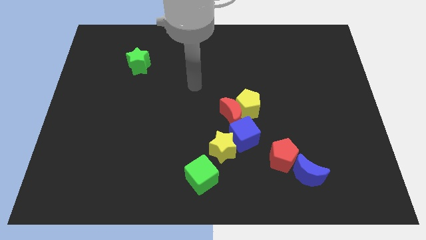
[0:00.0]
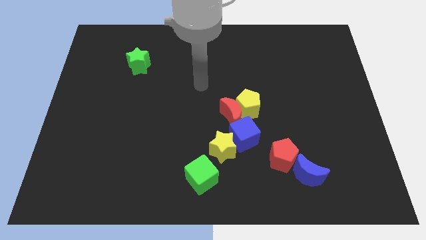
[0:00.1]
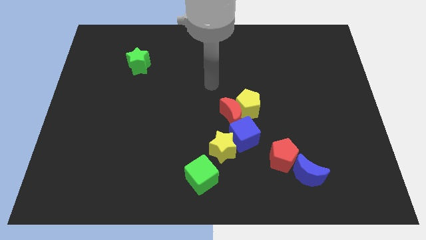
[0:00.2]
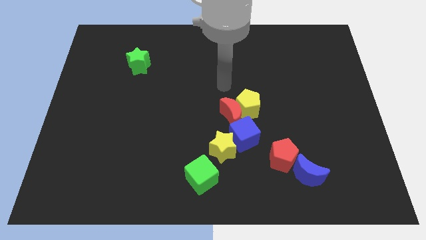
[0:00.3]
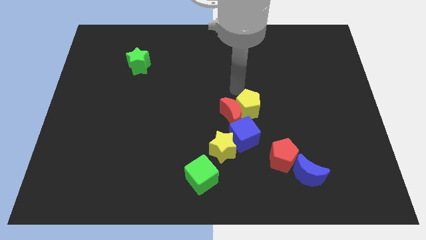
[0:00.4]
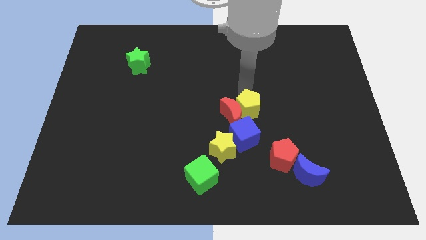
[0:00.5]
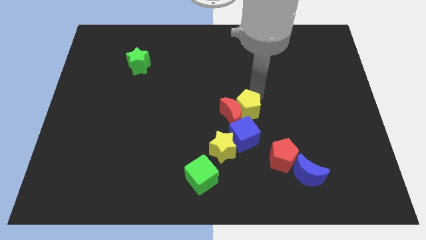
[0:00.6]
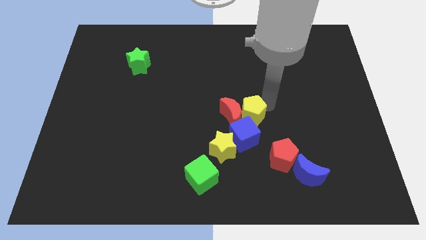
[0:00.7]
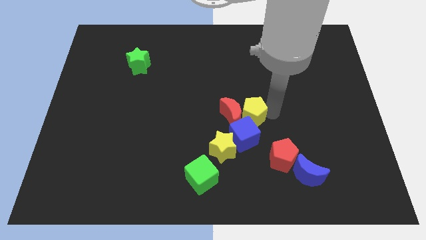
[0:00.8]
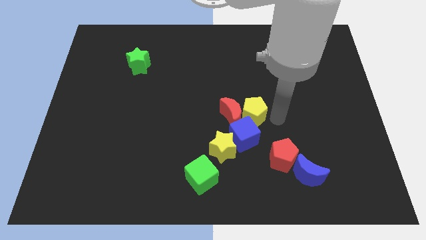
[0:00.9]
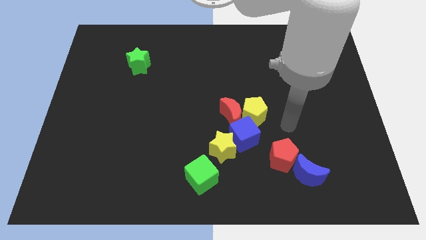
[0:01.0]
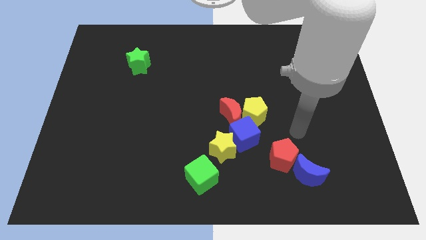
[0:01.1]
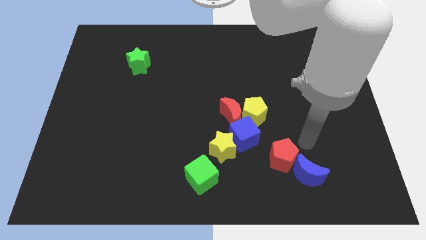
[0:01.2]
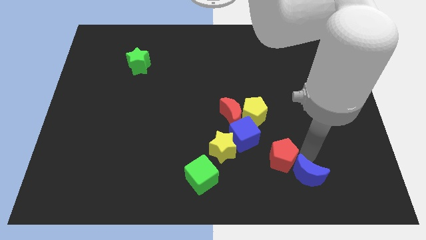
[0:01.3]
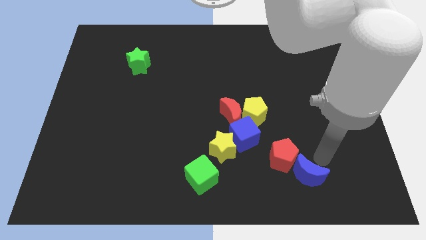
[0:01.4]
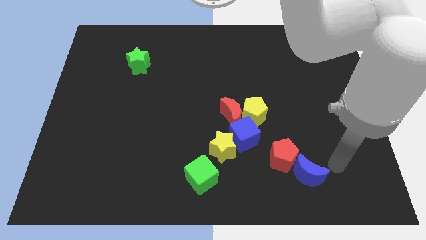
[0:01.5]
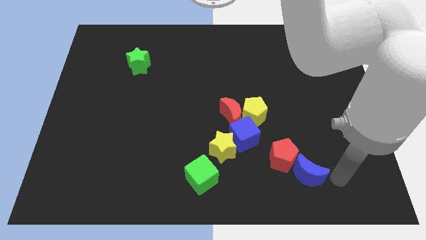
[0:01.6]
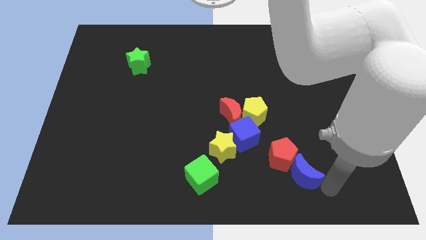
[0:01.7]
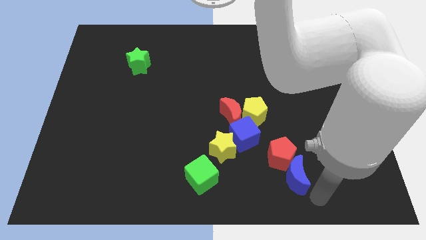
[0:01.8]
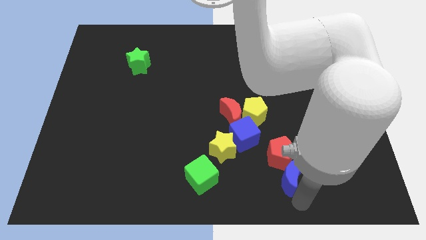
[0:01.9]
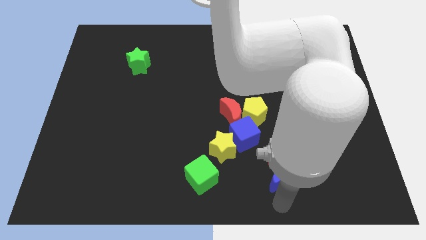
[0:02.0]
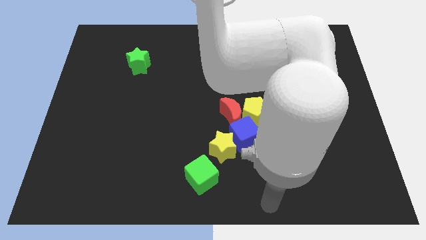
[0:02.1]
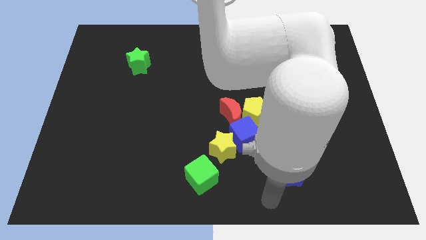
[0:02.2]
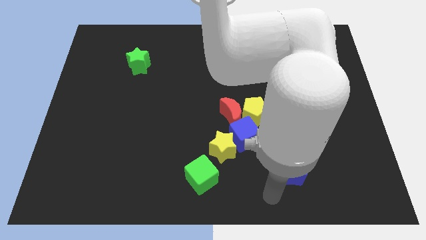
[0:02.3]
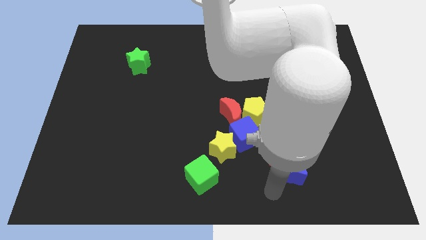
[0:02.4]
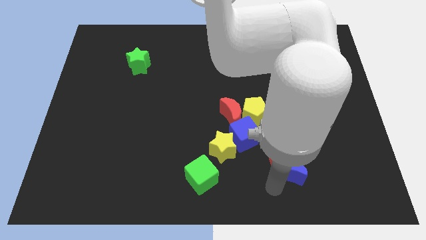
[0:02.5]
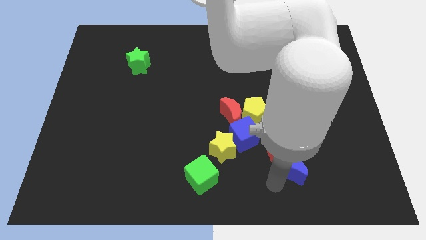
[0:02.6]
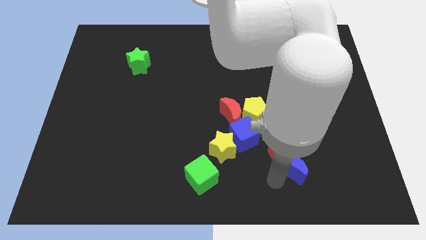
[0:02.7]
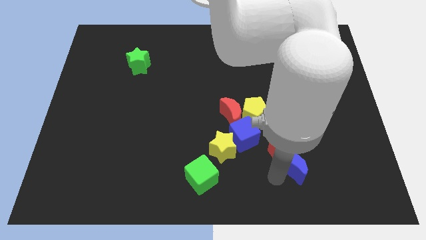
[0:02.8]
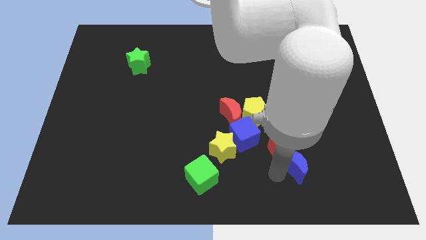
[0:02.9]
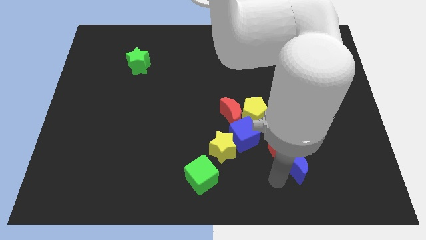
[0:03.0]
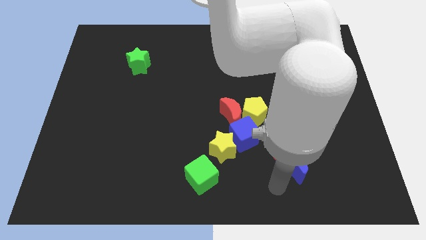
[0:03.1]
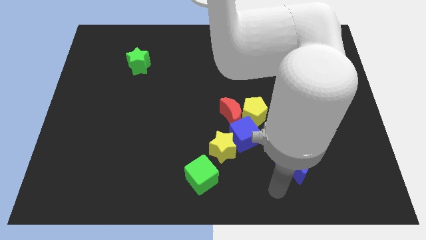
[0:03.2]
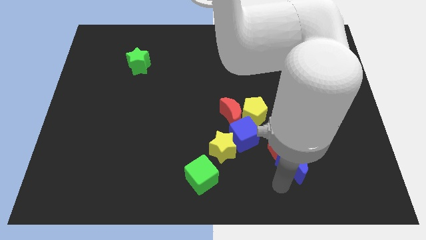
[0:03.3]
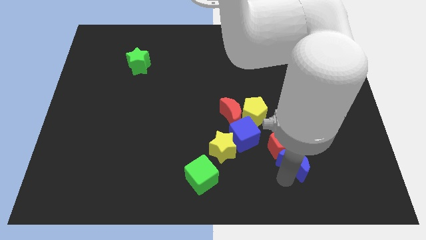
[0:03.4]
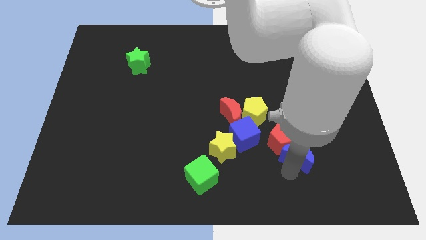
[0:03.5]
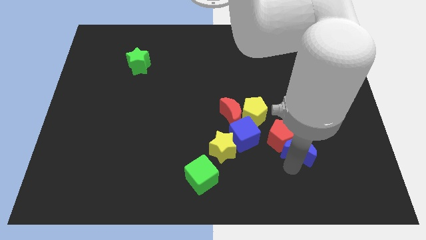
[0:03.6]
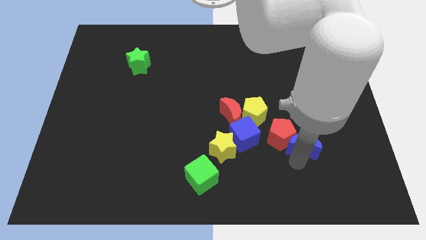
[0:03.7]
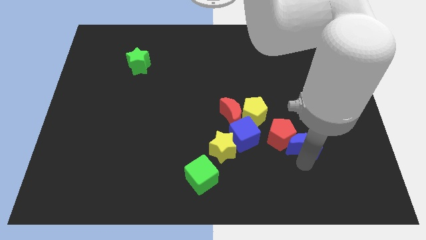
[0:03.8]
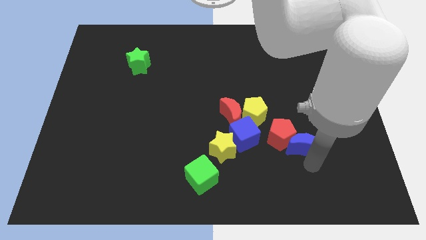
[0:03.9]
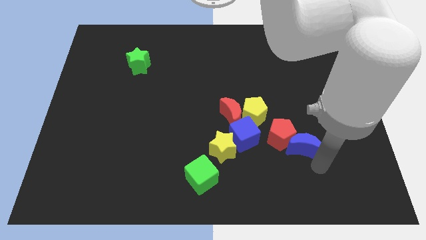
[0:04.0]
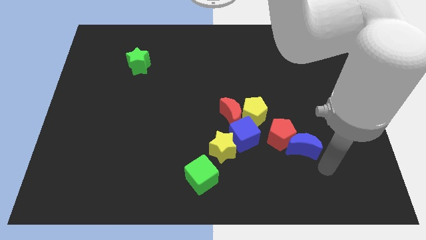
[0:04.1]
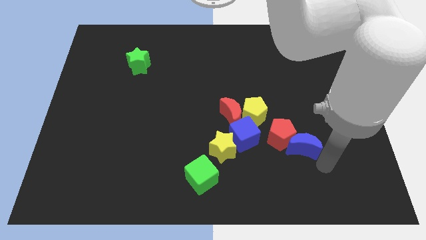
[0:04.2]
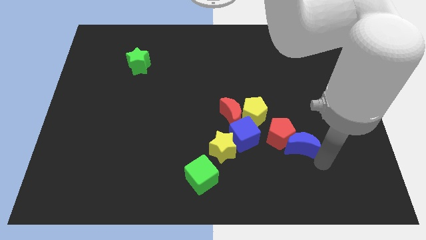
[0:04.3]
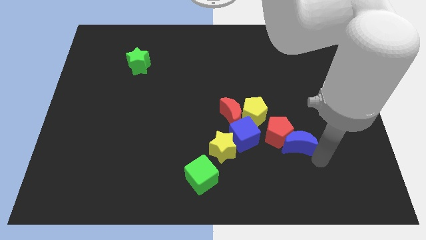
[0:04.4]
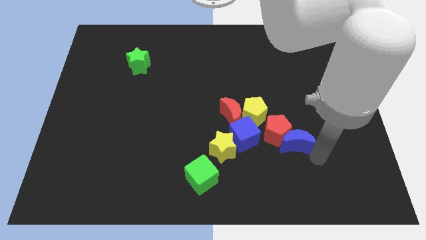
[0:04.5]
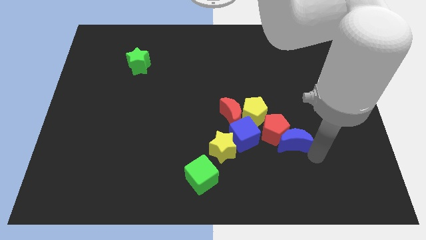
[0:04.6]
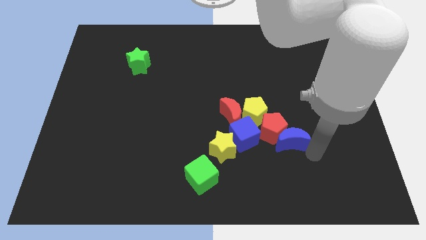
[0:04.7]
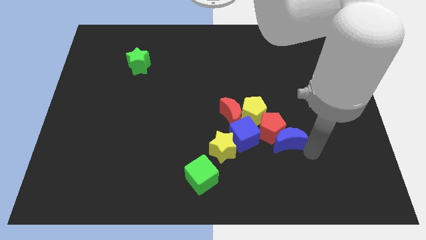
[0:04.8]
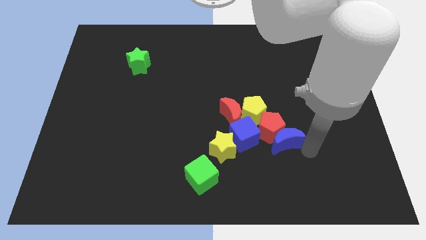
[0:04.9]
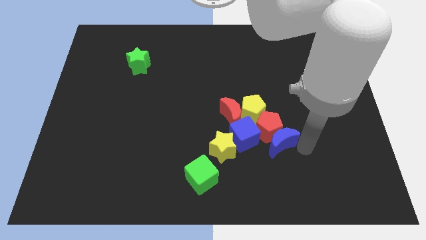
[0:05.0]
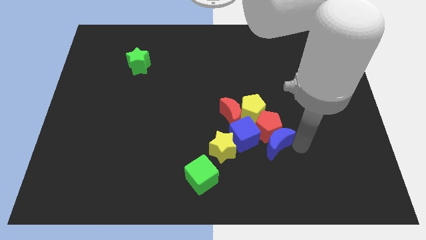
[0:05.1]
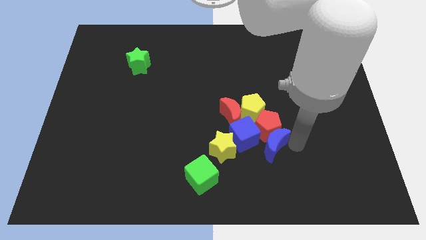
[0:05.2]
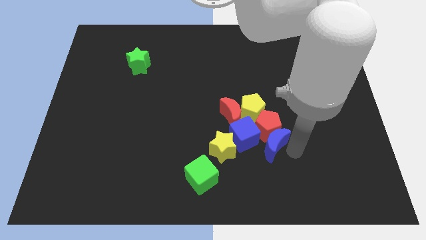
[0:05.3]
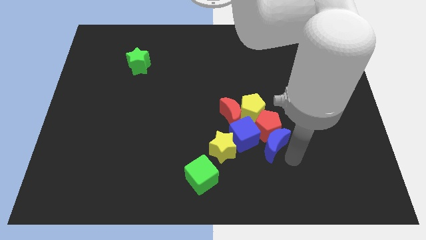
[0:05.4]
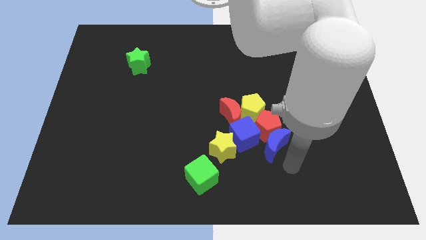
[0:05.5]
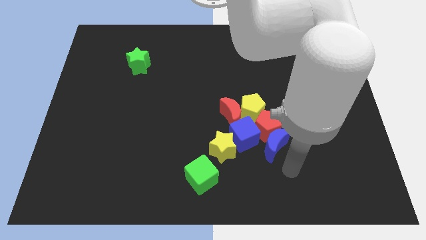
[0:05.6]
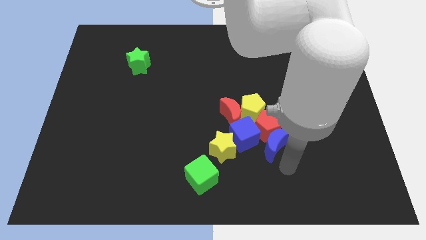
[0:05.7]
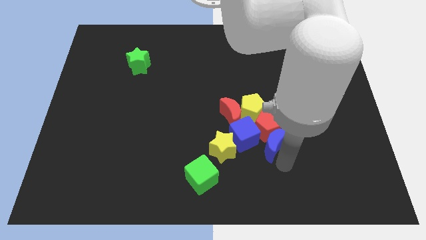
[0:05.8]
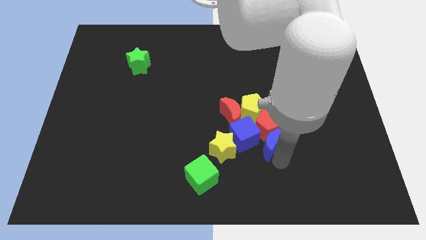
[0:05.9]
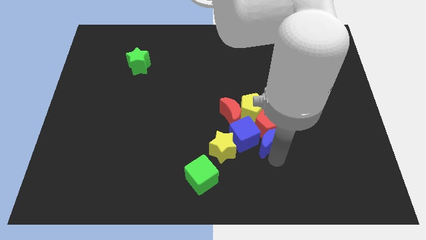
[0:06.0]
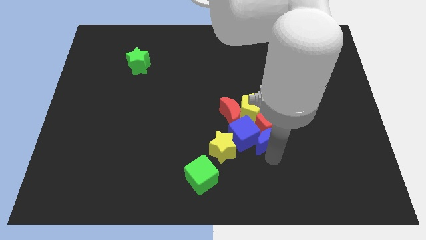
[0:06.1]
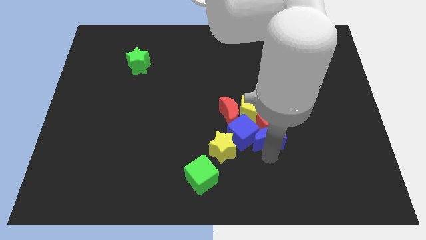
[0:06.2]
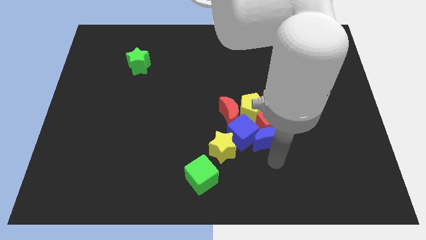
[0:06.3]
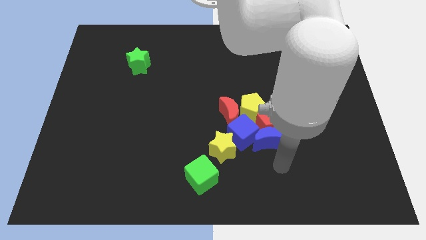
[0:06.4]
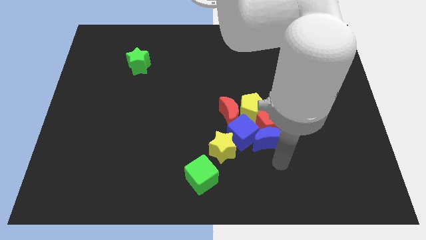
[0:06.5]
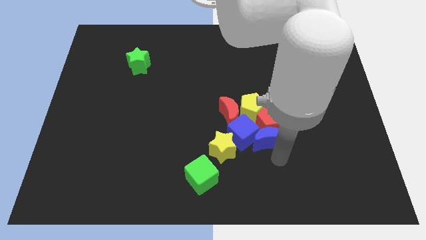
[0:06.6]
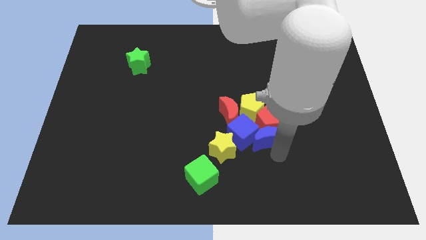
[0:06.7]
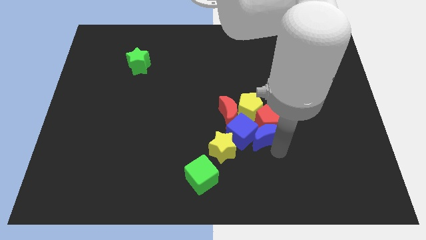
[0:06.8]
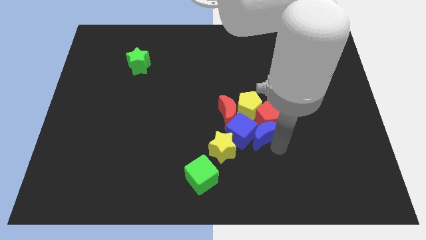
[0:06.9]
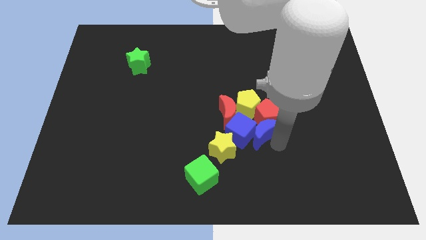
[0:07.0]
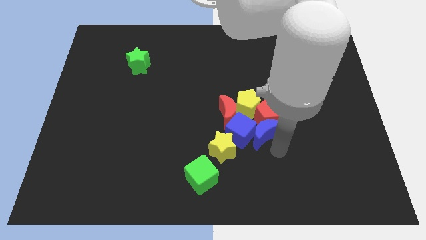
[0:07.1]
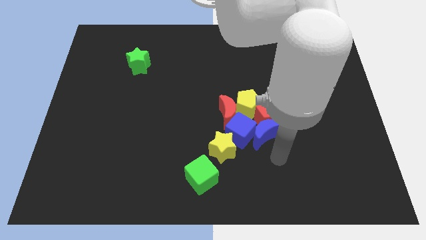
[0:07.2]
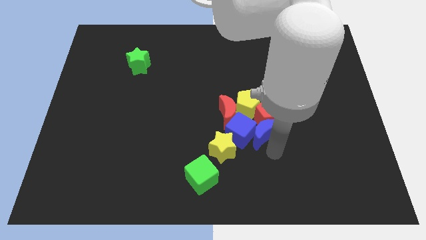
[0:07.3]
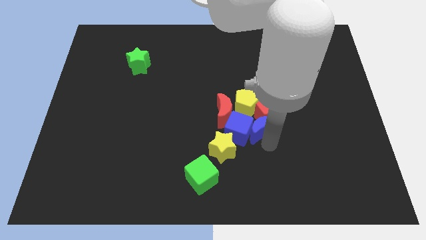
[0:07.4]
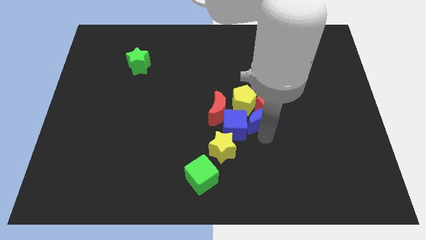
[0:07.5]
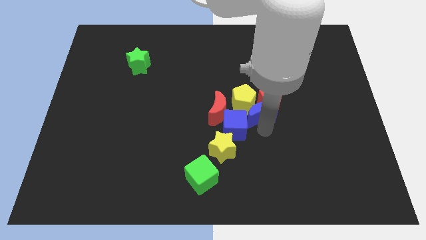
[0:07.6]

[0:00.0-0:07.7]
put the blue moon next to the yellow pentagon
